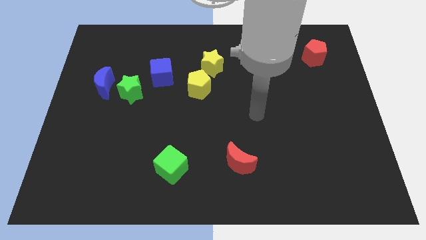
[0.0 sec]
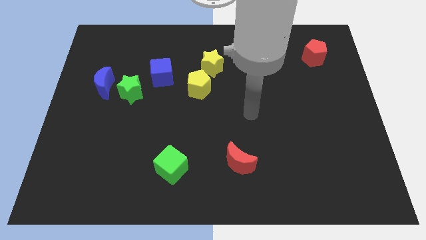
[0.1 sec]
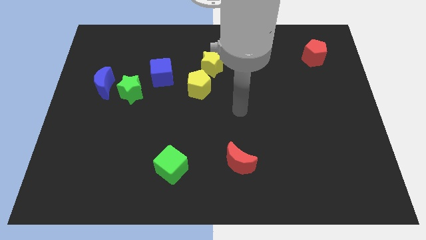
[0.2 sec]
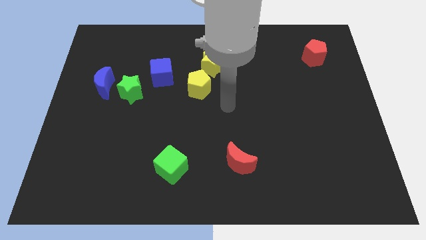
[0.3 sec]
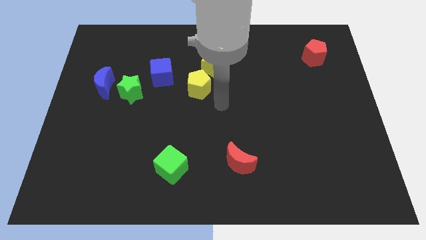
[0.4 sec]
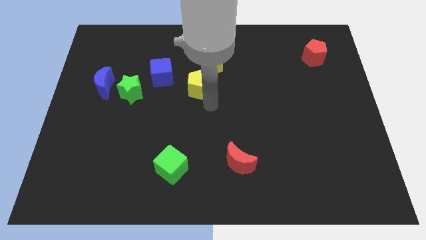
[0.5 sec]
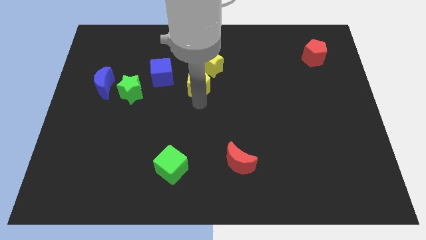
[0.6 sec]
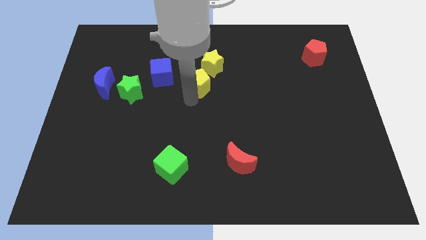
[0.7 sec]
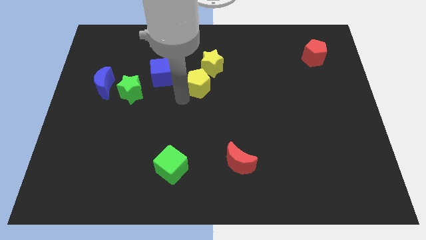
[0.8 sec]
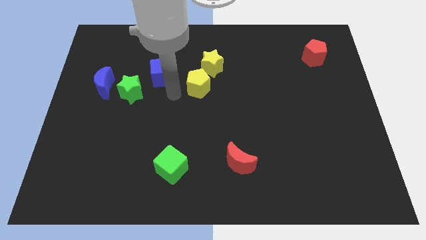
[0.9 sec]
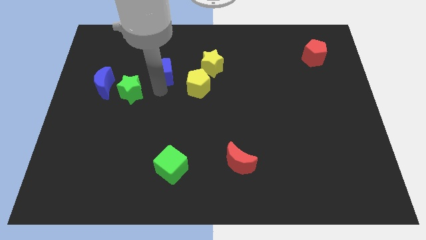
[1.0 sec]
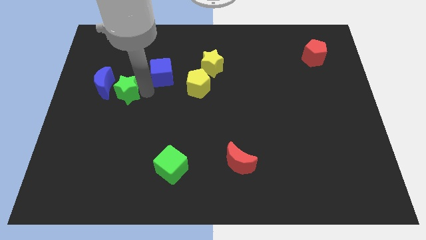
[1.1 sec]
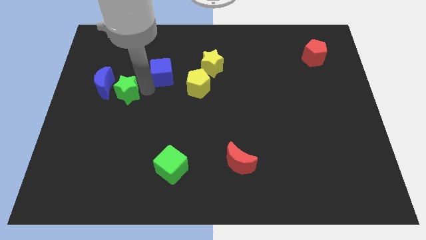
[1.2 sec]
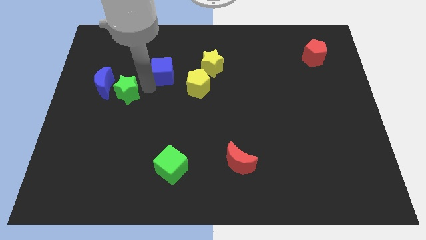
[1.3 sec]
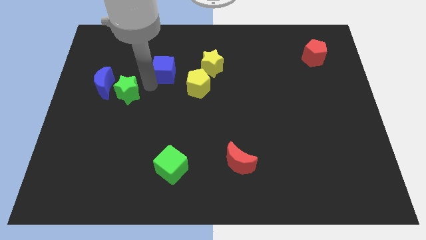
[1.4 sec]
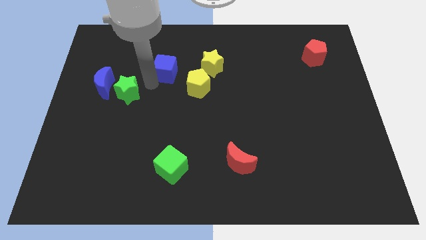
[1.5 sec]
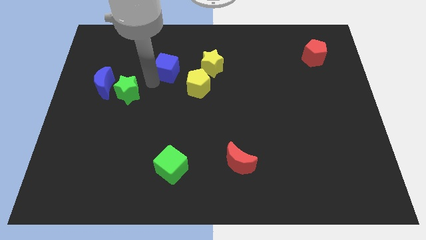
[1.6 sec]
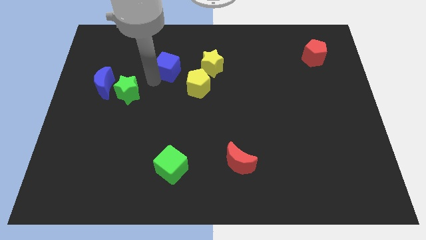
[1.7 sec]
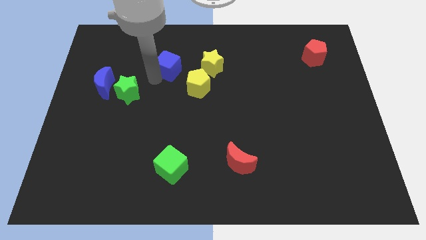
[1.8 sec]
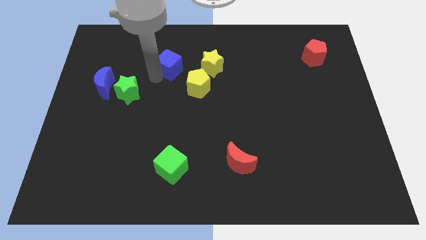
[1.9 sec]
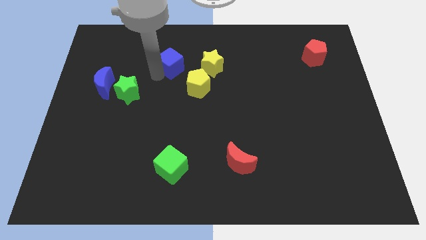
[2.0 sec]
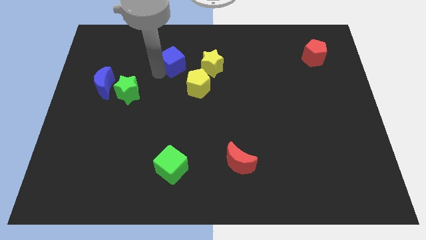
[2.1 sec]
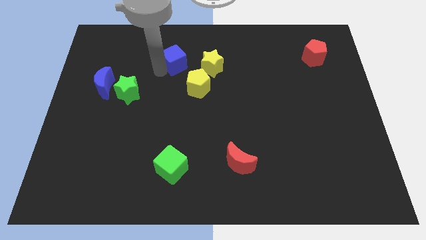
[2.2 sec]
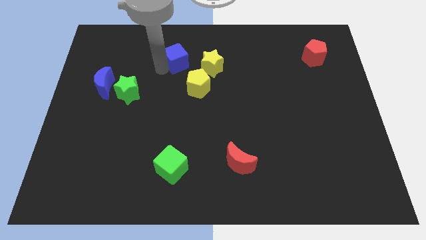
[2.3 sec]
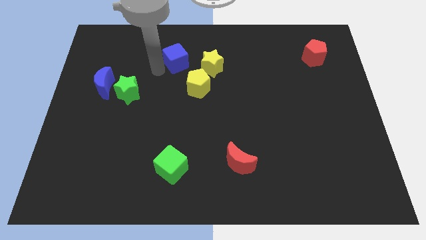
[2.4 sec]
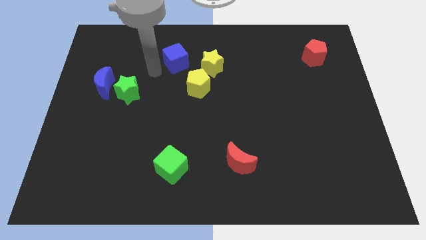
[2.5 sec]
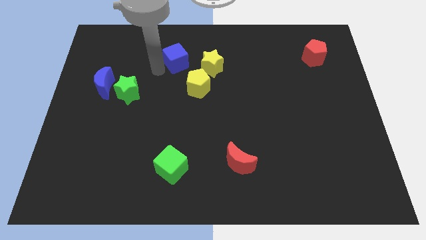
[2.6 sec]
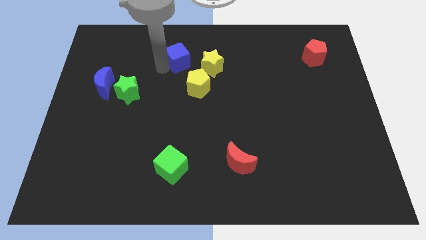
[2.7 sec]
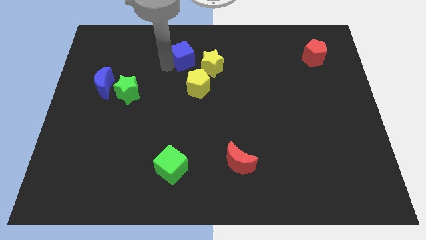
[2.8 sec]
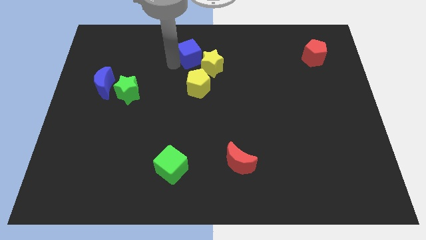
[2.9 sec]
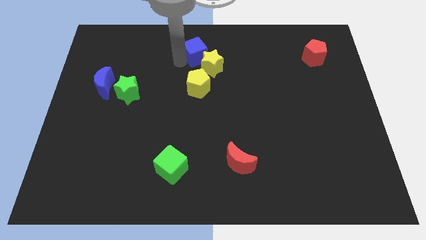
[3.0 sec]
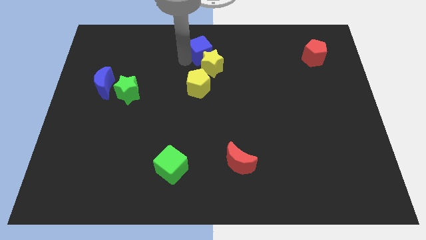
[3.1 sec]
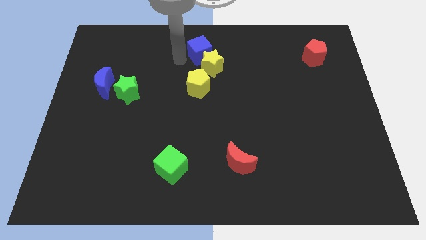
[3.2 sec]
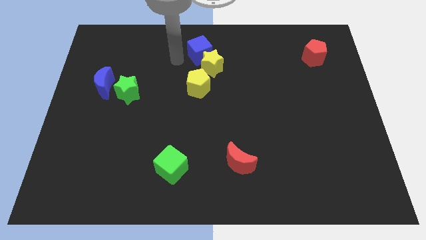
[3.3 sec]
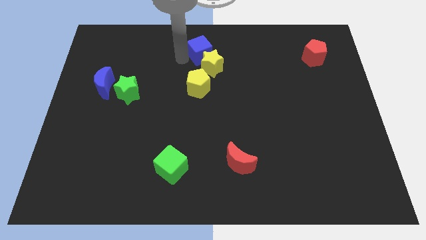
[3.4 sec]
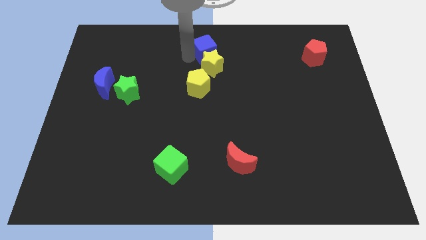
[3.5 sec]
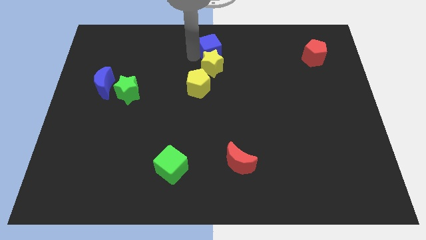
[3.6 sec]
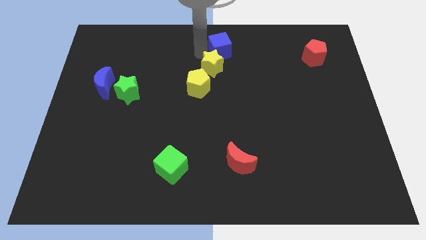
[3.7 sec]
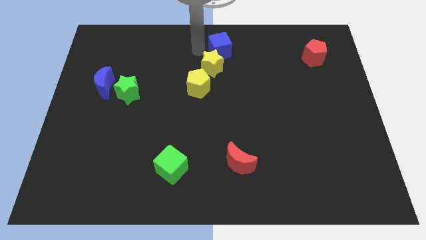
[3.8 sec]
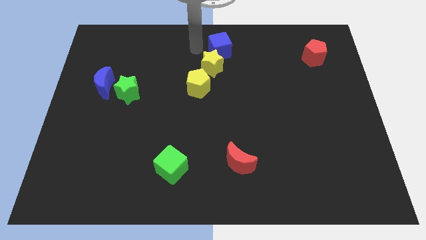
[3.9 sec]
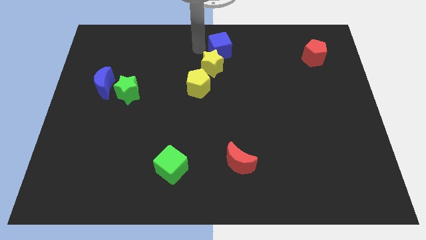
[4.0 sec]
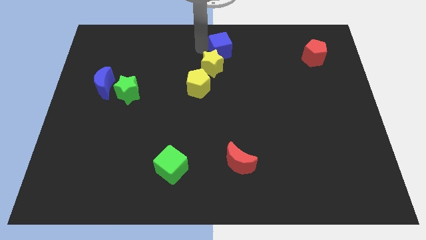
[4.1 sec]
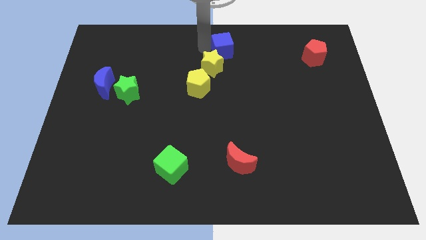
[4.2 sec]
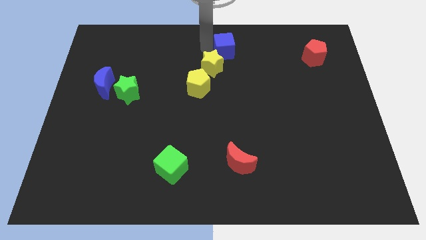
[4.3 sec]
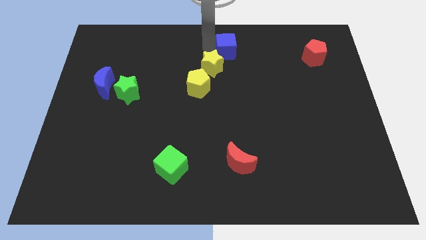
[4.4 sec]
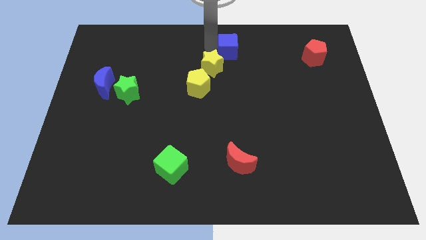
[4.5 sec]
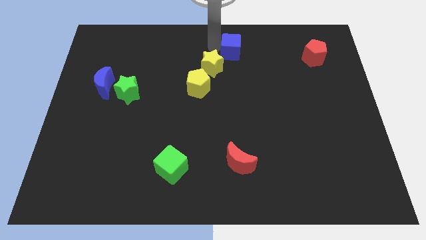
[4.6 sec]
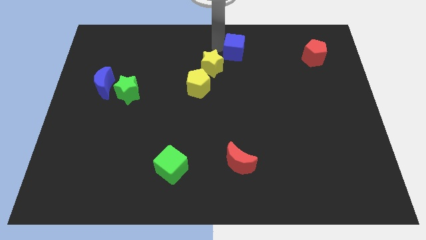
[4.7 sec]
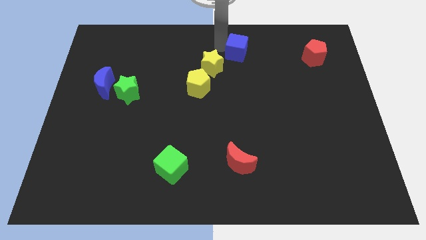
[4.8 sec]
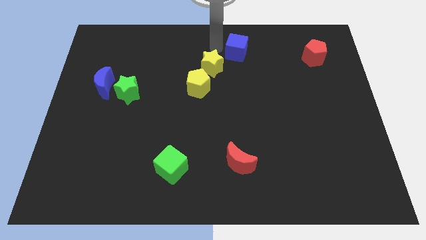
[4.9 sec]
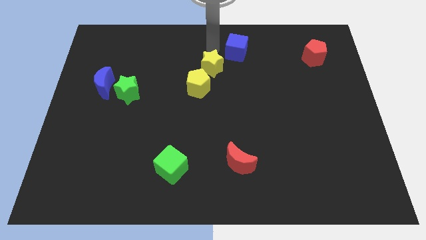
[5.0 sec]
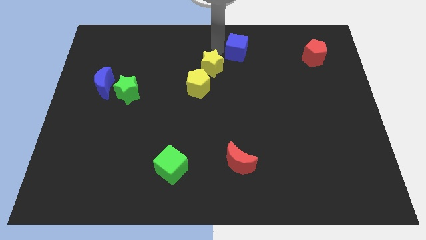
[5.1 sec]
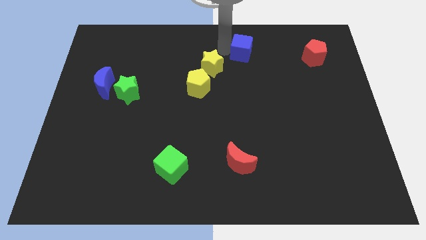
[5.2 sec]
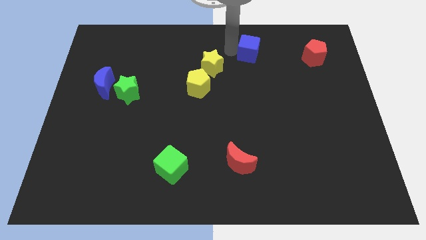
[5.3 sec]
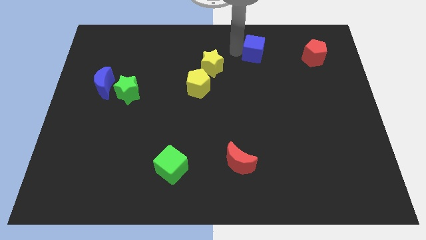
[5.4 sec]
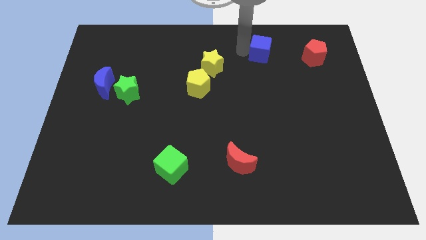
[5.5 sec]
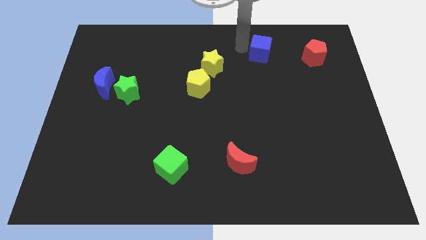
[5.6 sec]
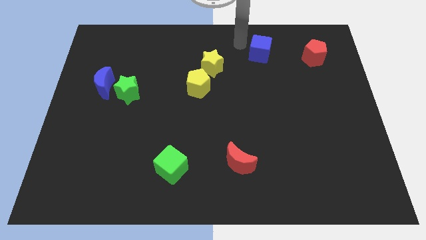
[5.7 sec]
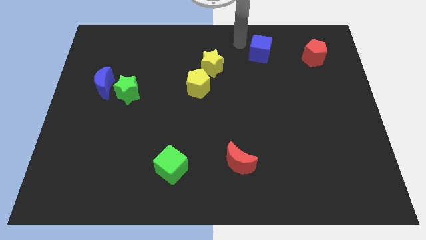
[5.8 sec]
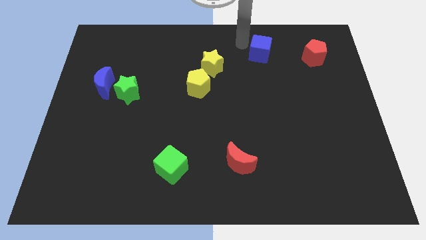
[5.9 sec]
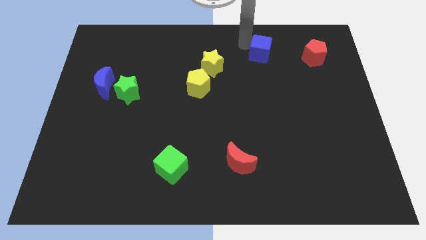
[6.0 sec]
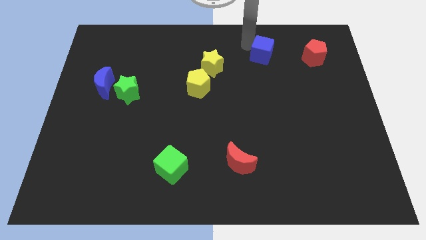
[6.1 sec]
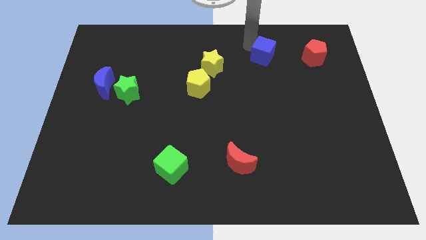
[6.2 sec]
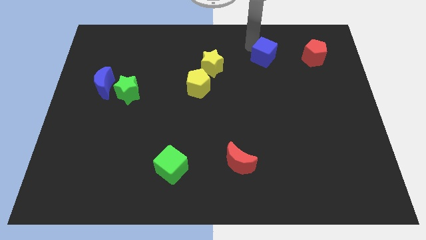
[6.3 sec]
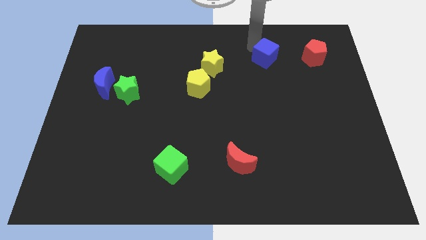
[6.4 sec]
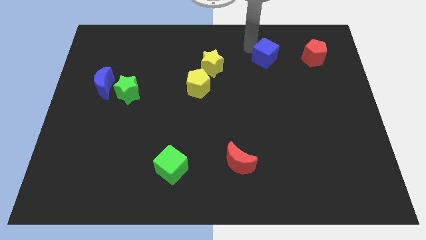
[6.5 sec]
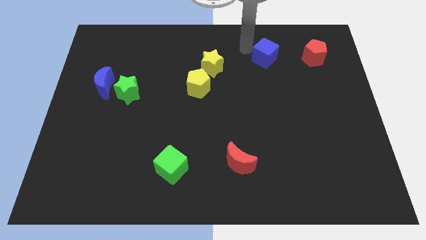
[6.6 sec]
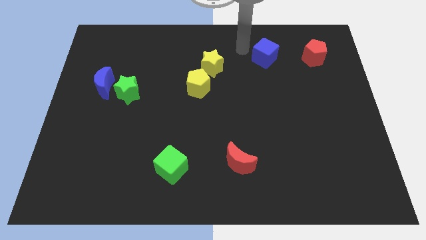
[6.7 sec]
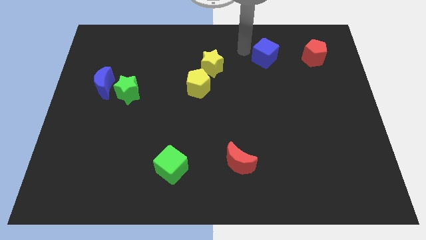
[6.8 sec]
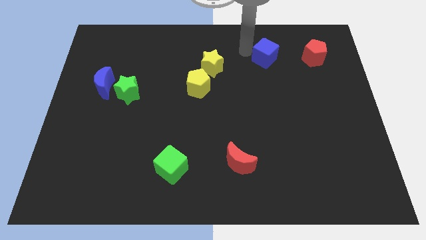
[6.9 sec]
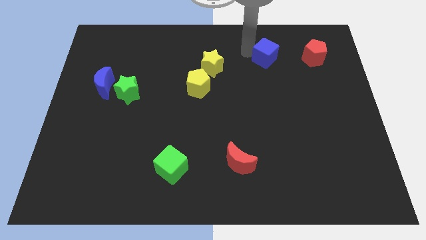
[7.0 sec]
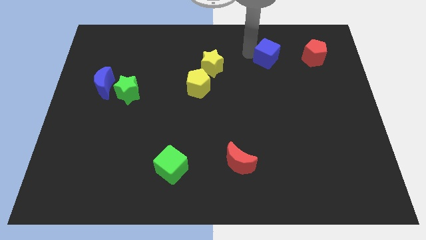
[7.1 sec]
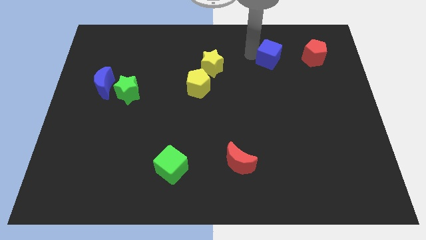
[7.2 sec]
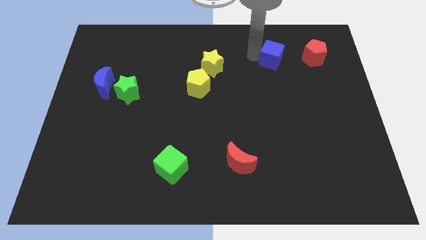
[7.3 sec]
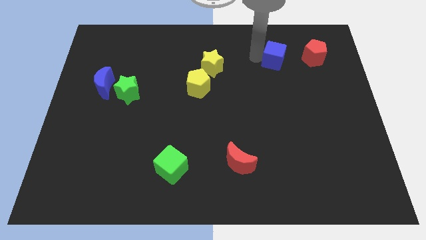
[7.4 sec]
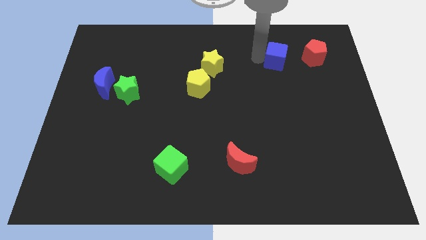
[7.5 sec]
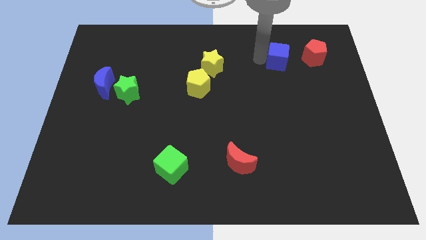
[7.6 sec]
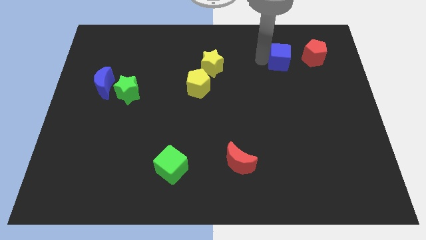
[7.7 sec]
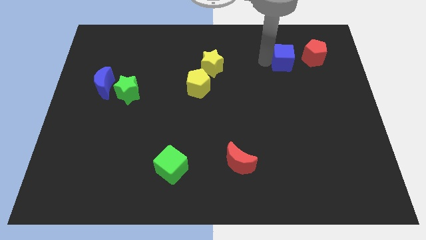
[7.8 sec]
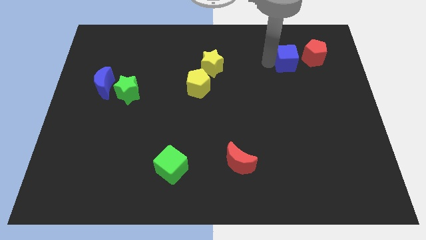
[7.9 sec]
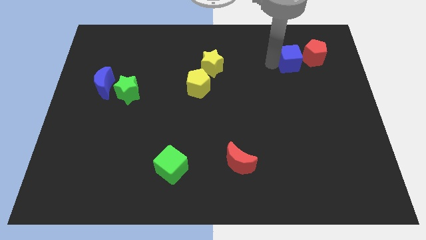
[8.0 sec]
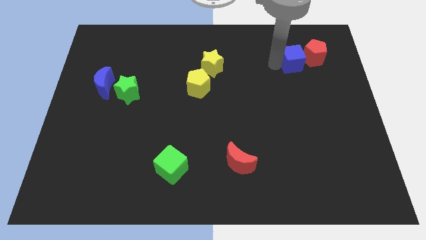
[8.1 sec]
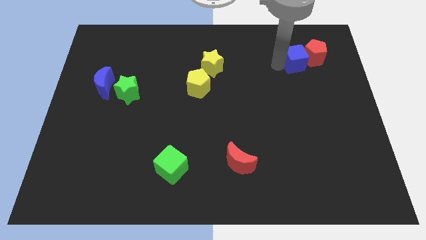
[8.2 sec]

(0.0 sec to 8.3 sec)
push the blue cube next to the red pentagon
